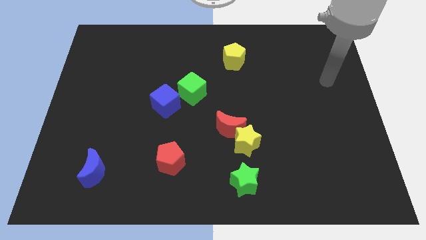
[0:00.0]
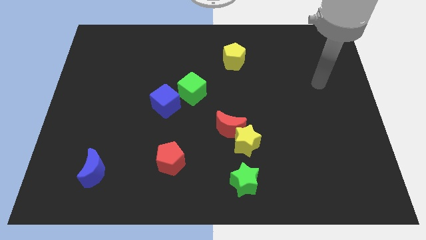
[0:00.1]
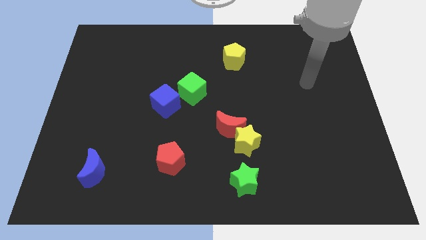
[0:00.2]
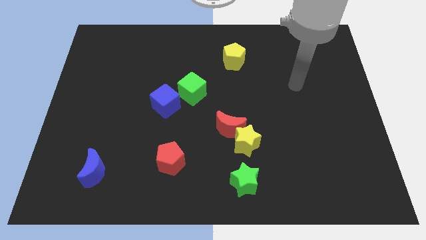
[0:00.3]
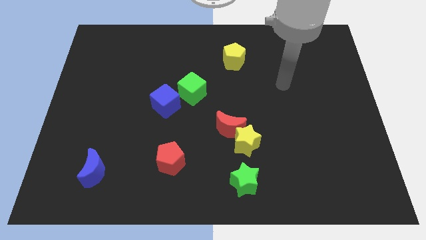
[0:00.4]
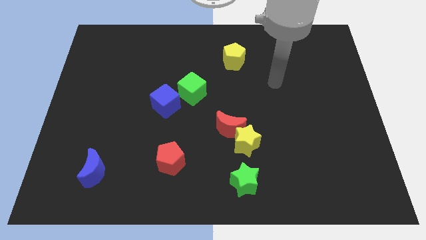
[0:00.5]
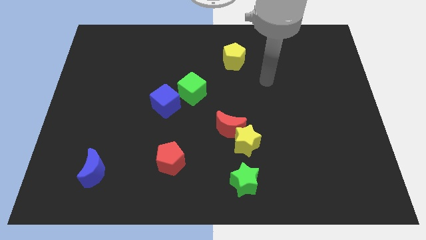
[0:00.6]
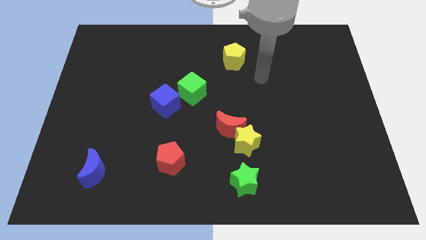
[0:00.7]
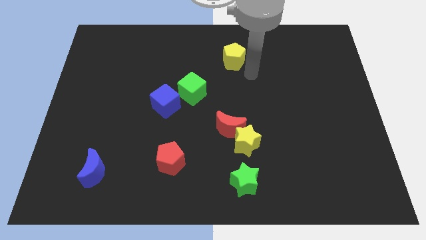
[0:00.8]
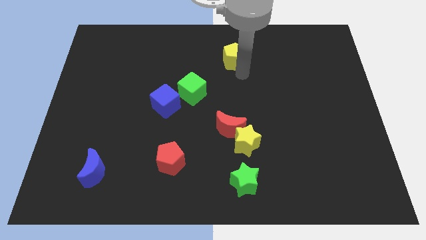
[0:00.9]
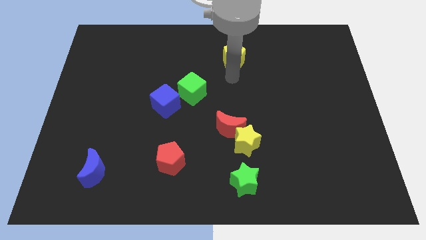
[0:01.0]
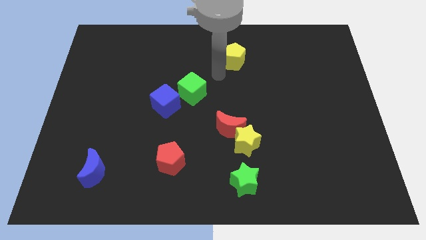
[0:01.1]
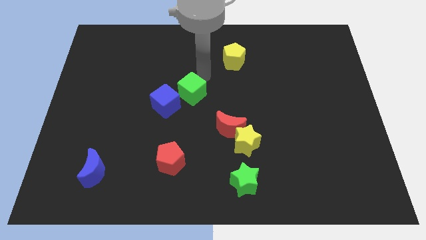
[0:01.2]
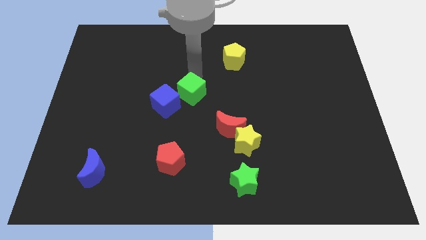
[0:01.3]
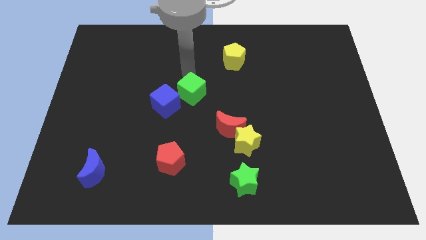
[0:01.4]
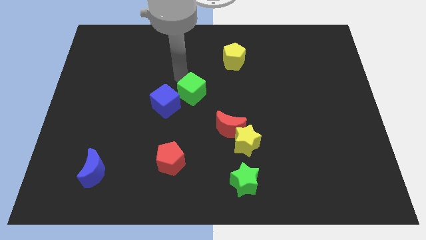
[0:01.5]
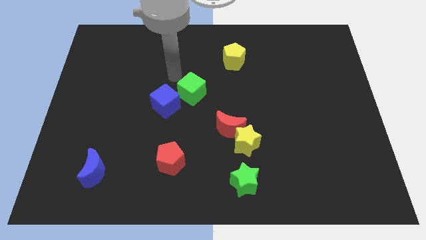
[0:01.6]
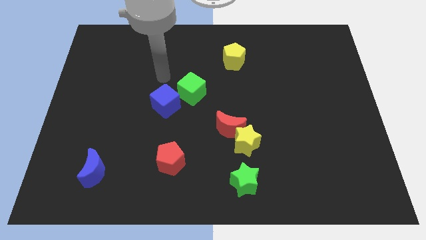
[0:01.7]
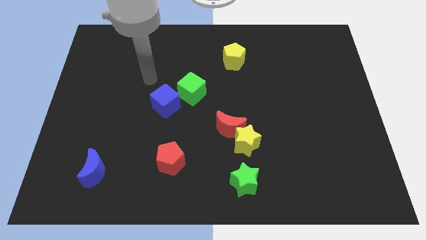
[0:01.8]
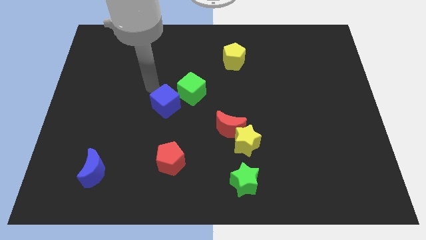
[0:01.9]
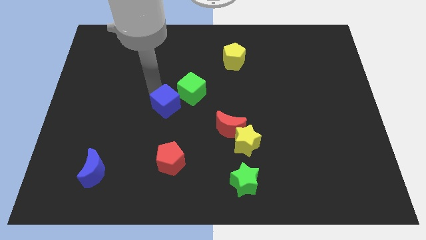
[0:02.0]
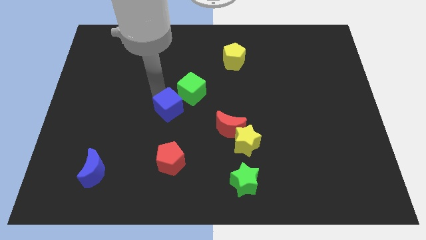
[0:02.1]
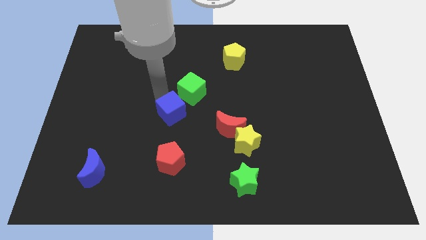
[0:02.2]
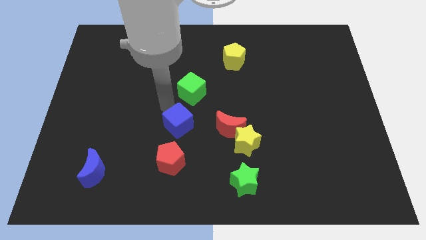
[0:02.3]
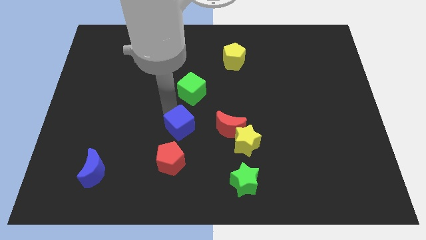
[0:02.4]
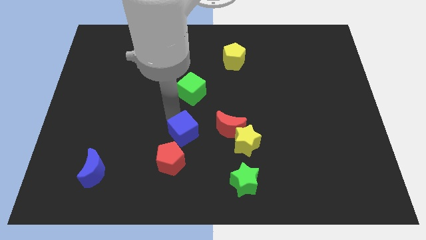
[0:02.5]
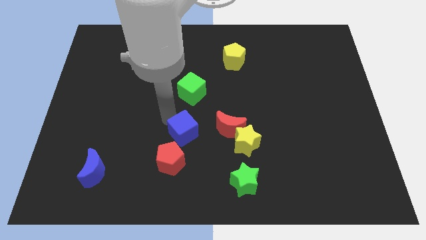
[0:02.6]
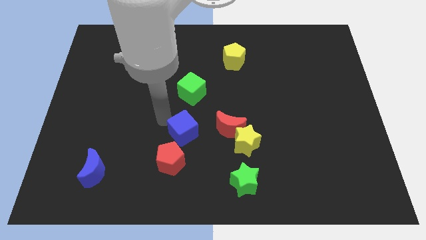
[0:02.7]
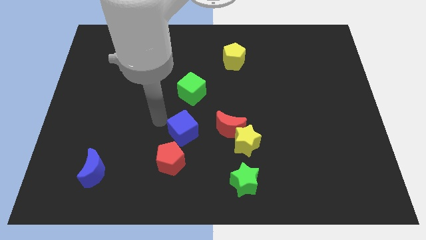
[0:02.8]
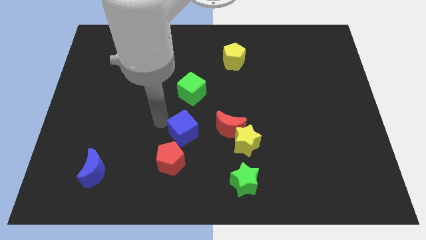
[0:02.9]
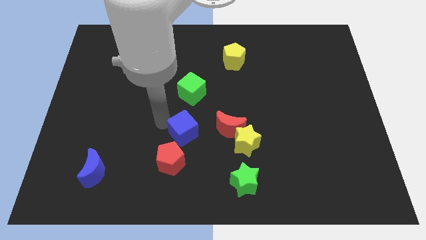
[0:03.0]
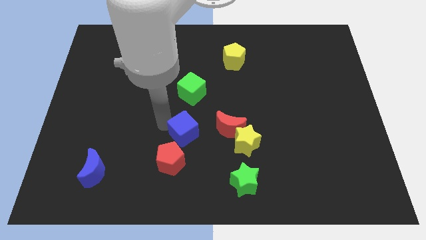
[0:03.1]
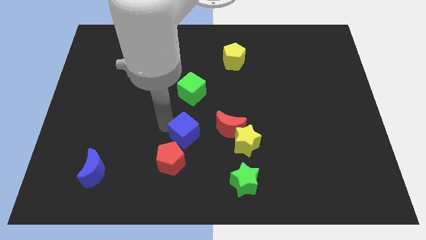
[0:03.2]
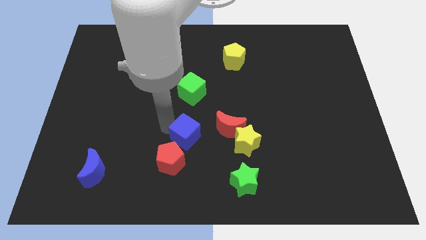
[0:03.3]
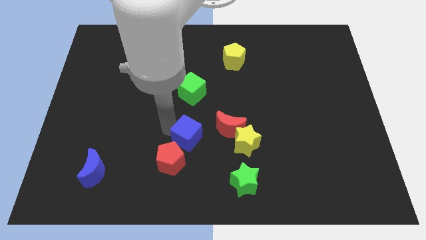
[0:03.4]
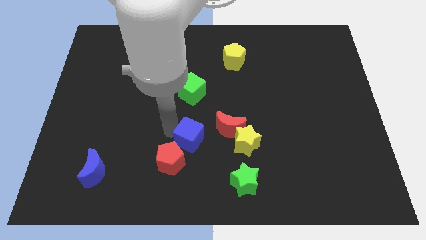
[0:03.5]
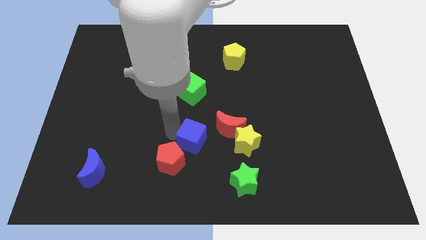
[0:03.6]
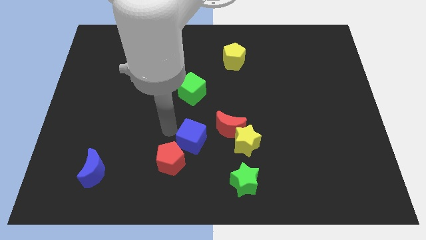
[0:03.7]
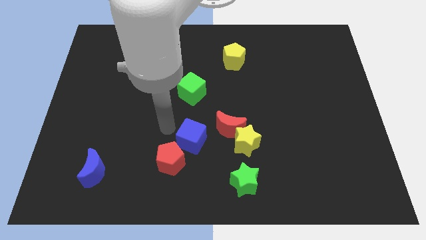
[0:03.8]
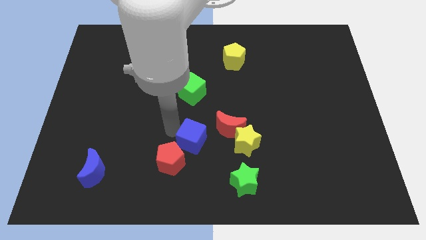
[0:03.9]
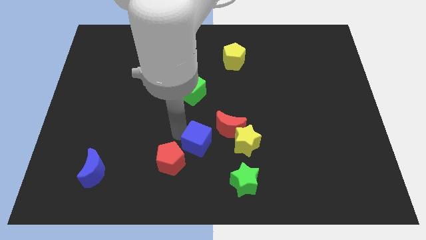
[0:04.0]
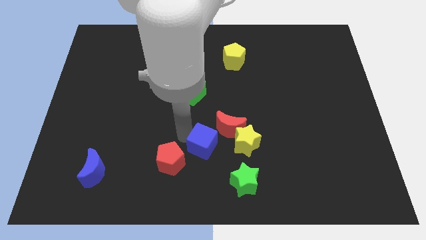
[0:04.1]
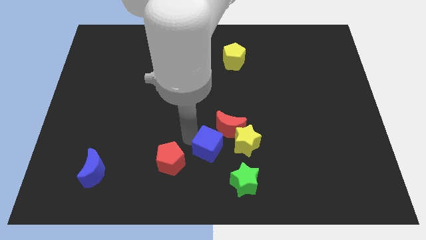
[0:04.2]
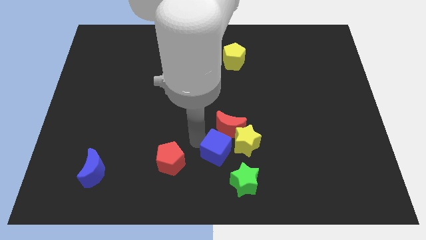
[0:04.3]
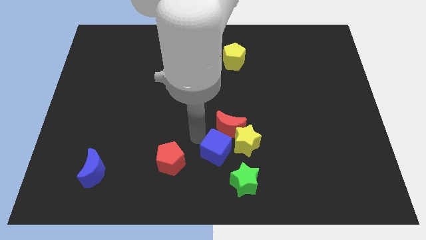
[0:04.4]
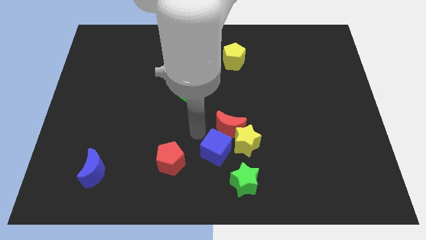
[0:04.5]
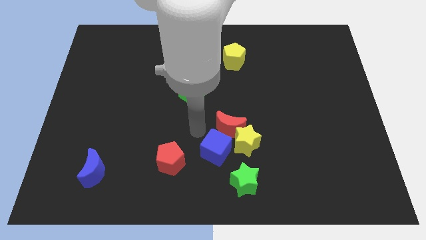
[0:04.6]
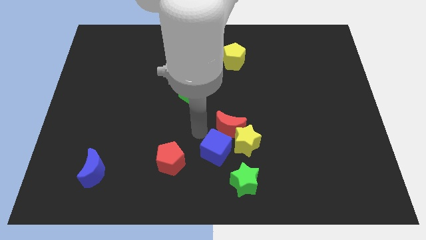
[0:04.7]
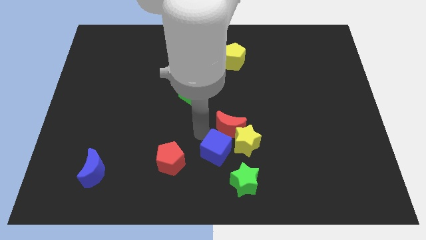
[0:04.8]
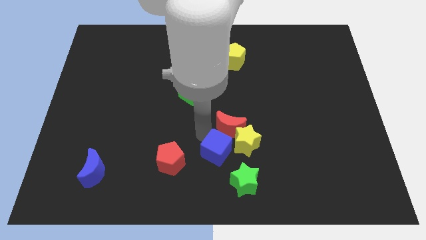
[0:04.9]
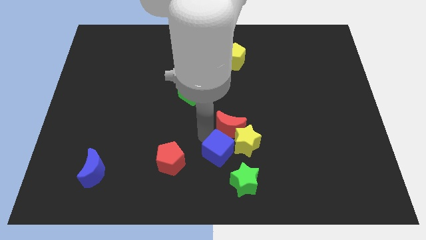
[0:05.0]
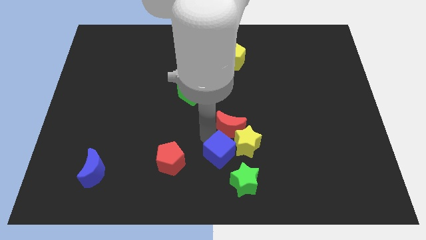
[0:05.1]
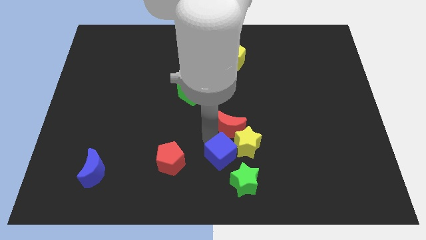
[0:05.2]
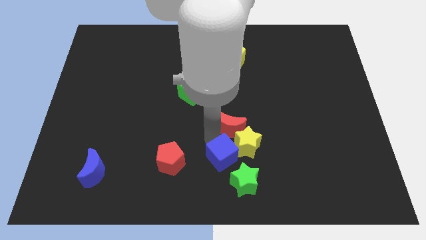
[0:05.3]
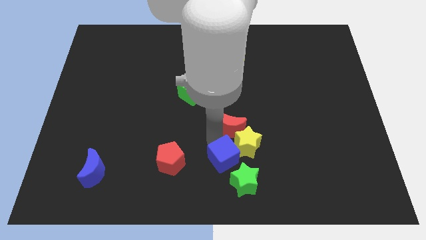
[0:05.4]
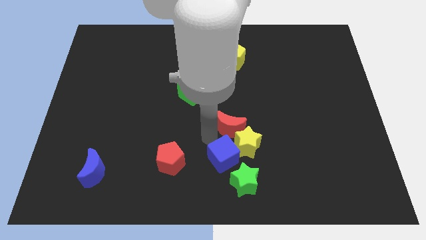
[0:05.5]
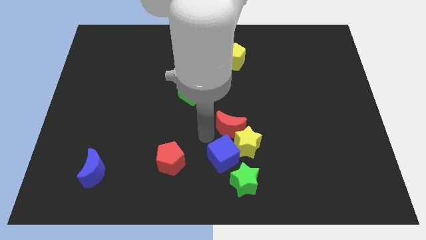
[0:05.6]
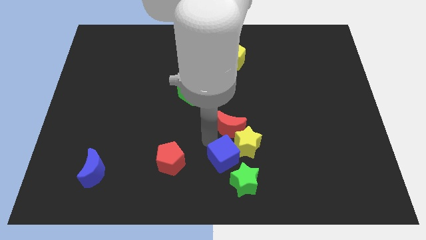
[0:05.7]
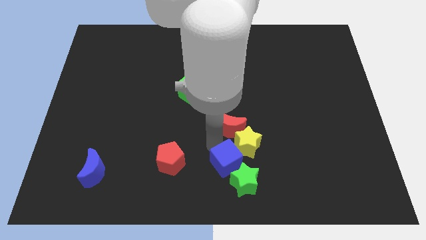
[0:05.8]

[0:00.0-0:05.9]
push the blue cube next to the green star

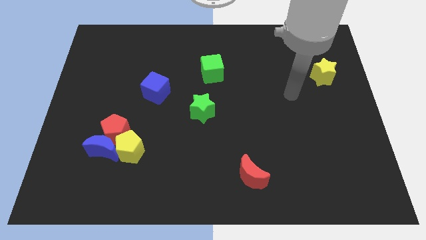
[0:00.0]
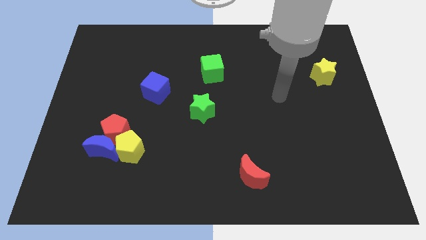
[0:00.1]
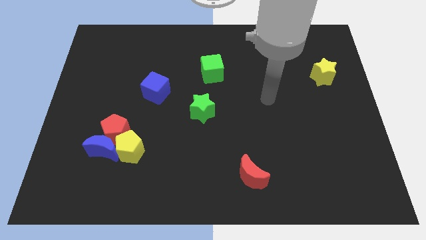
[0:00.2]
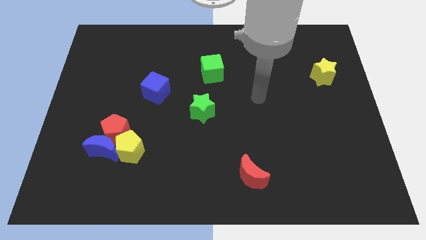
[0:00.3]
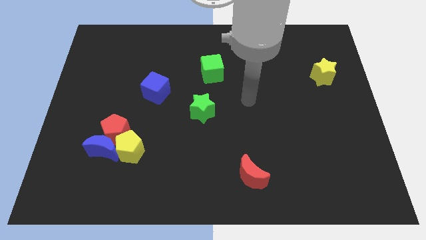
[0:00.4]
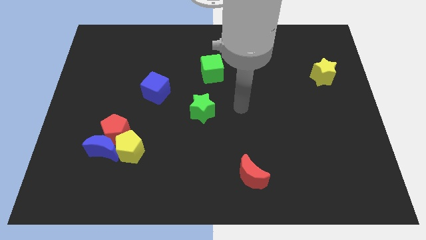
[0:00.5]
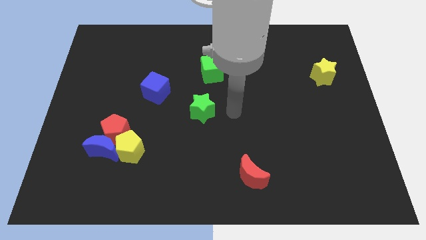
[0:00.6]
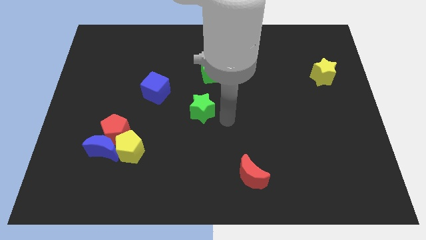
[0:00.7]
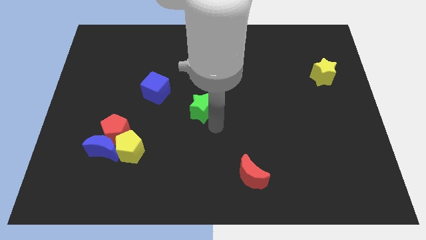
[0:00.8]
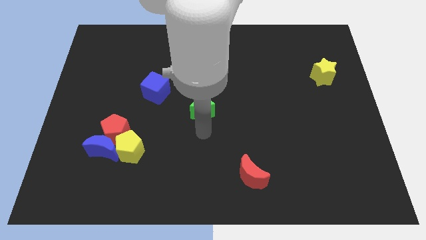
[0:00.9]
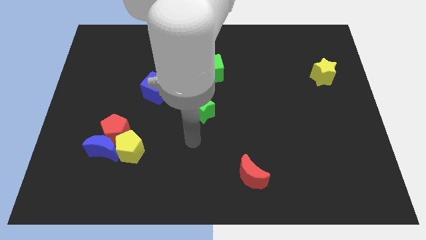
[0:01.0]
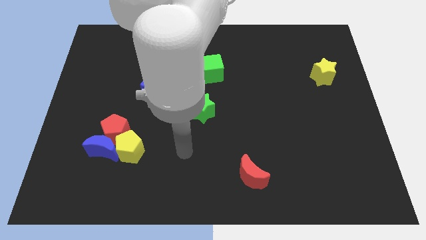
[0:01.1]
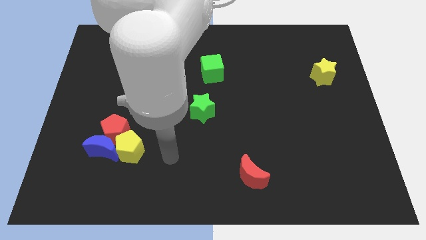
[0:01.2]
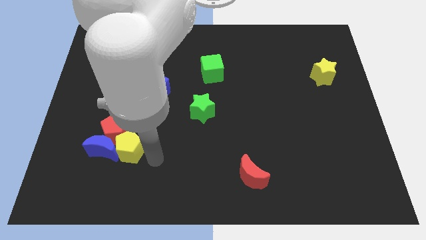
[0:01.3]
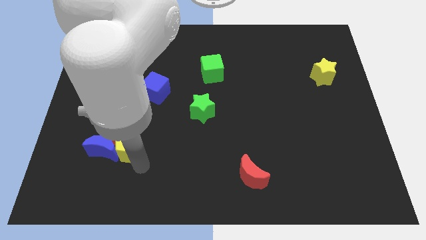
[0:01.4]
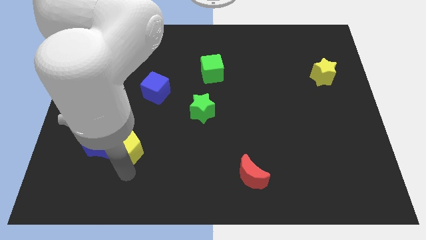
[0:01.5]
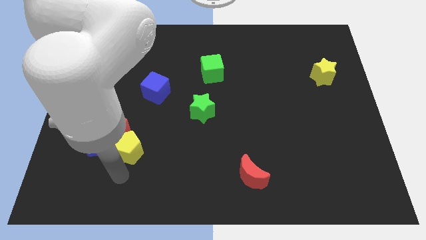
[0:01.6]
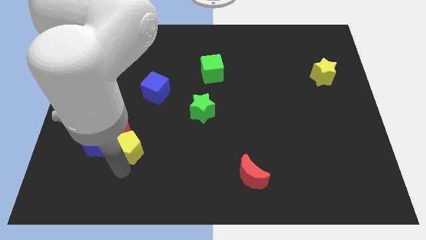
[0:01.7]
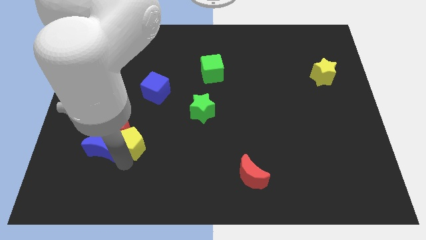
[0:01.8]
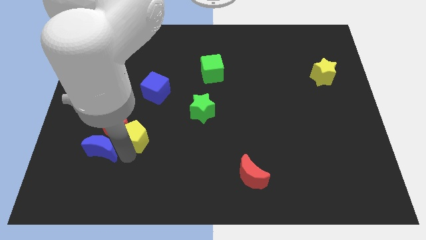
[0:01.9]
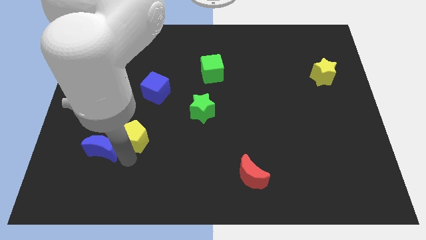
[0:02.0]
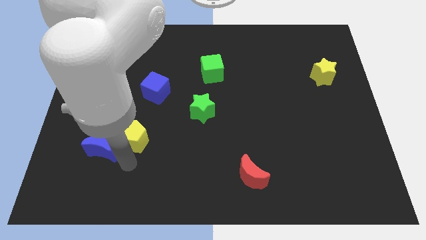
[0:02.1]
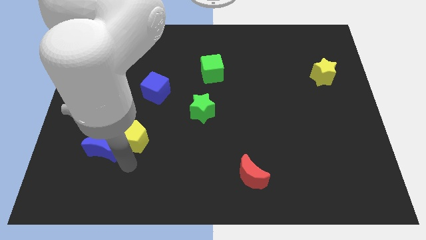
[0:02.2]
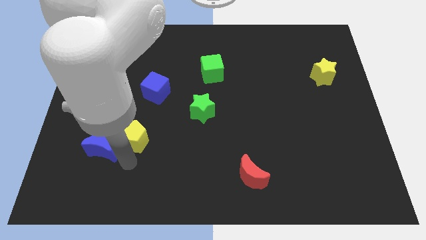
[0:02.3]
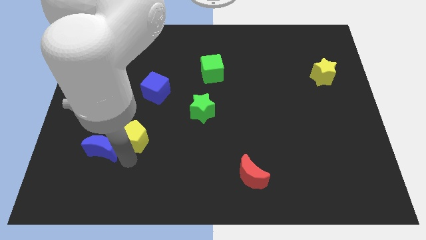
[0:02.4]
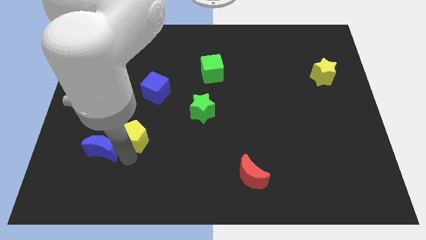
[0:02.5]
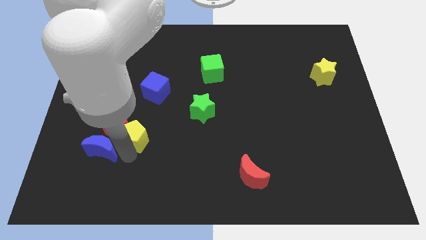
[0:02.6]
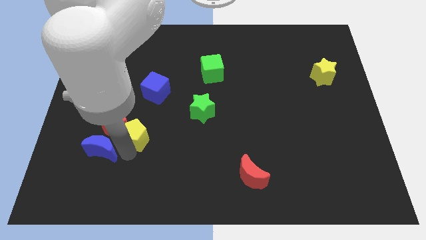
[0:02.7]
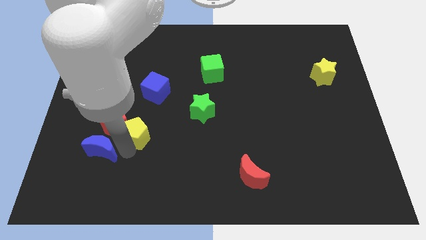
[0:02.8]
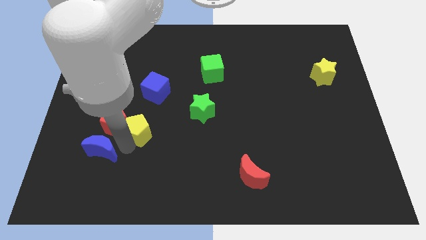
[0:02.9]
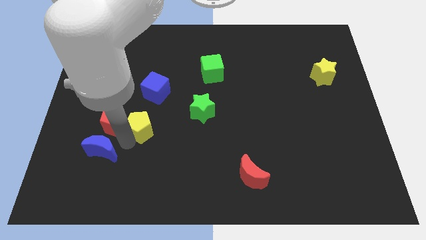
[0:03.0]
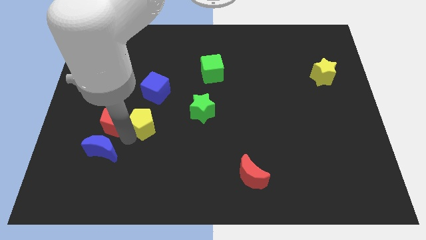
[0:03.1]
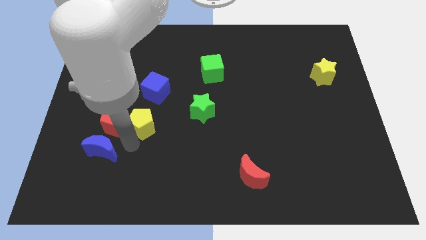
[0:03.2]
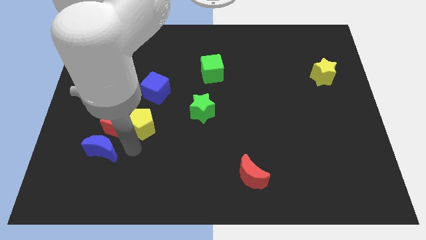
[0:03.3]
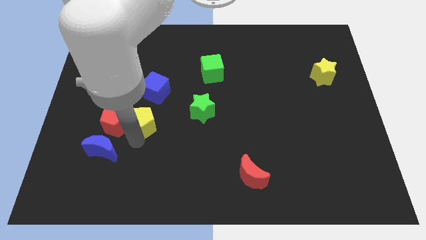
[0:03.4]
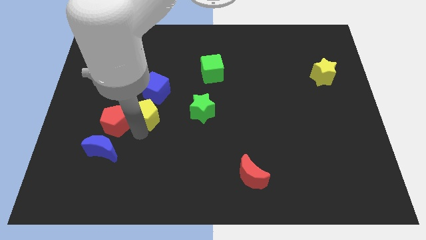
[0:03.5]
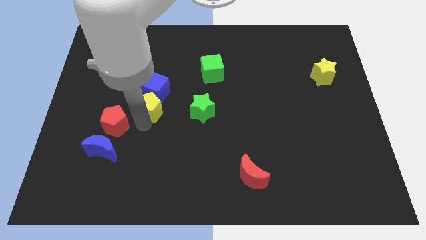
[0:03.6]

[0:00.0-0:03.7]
put the yellow pentagon next to the blue cube
